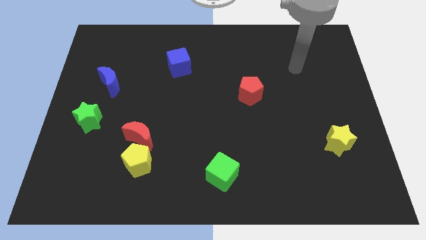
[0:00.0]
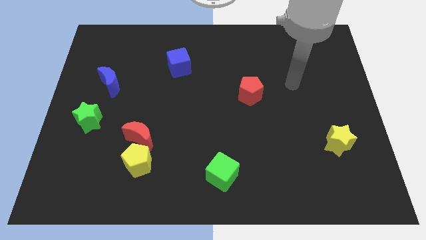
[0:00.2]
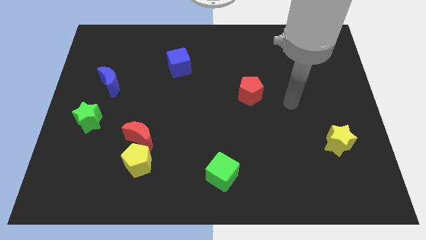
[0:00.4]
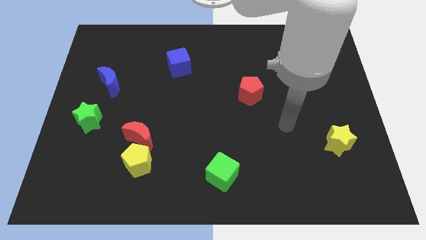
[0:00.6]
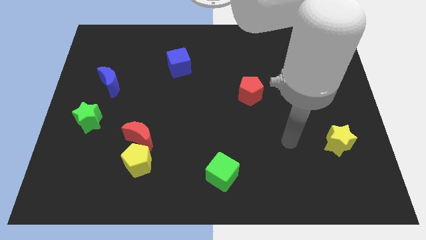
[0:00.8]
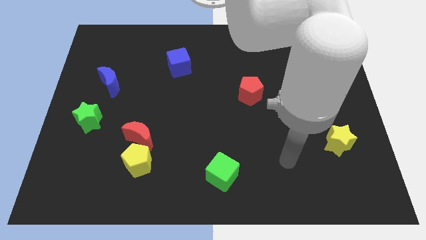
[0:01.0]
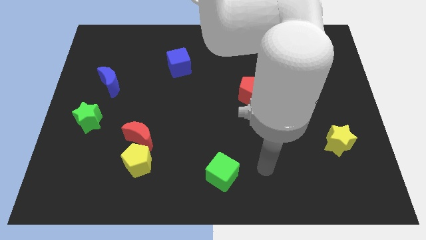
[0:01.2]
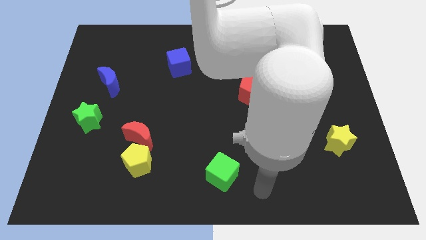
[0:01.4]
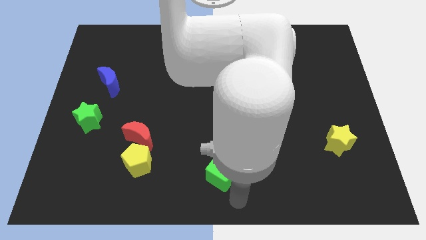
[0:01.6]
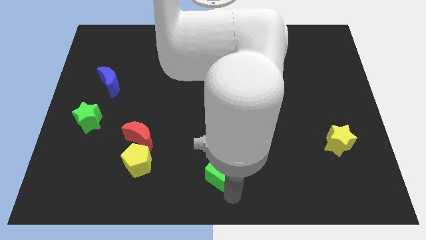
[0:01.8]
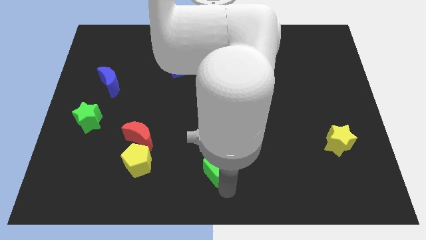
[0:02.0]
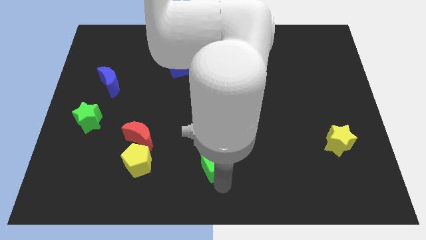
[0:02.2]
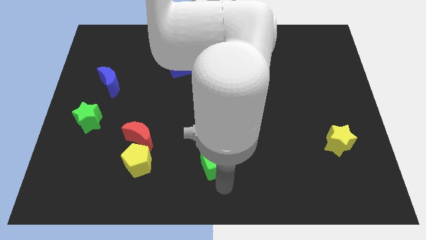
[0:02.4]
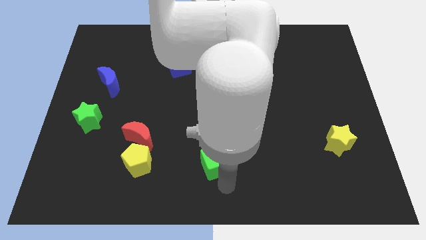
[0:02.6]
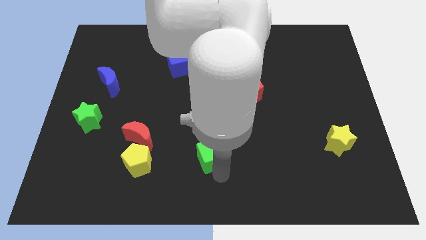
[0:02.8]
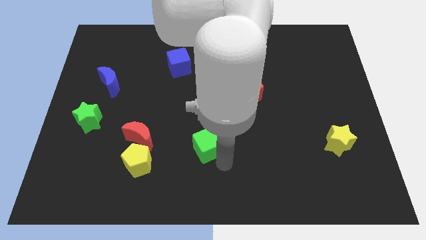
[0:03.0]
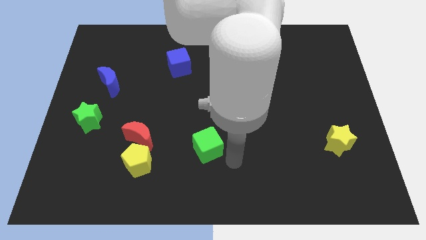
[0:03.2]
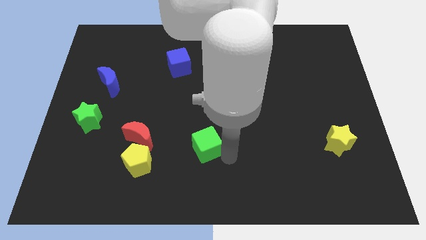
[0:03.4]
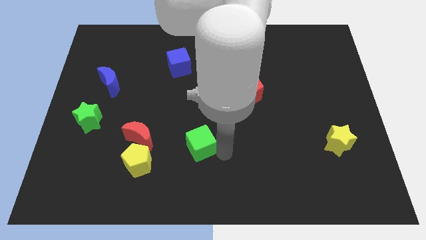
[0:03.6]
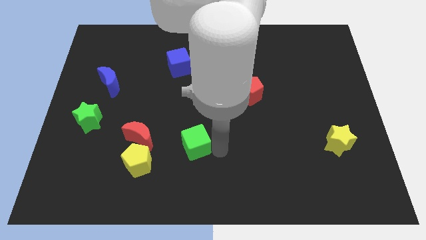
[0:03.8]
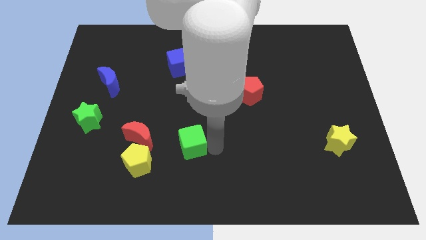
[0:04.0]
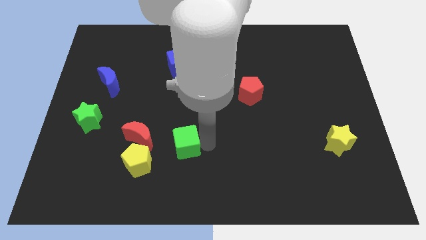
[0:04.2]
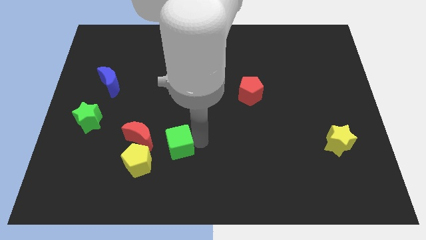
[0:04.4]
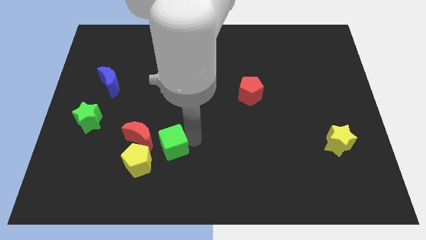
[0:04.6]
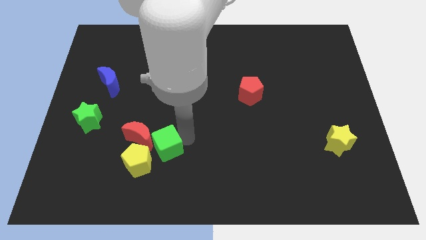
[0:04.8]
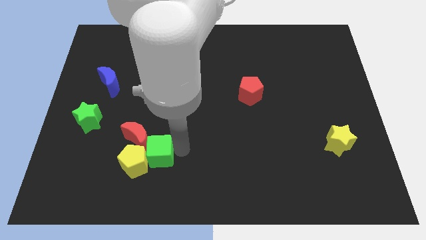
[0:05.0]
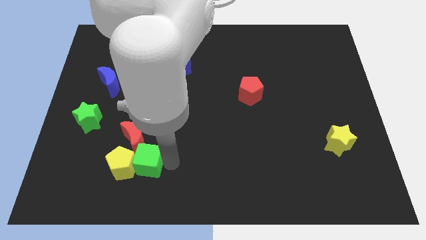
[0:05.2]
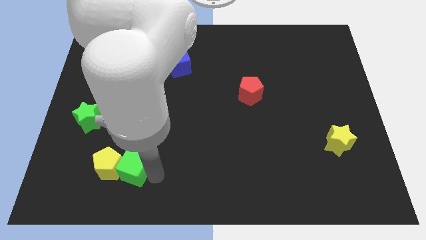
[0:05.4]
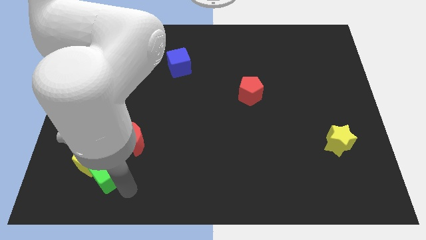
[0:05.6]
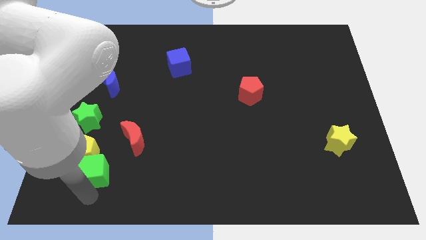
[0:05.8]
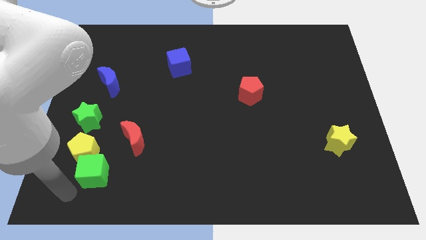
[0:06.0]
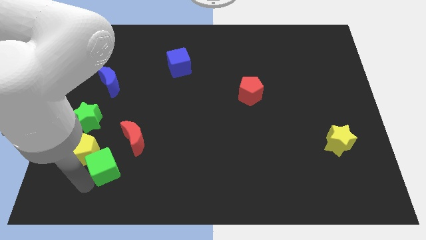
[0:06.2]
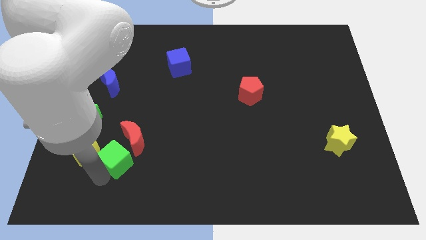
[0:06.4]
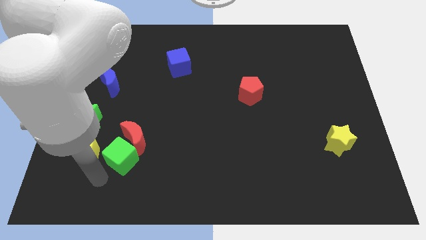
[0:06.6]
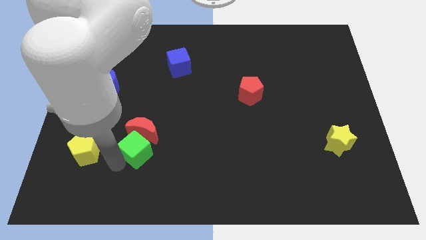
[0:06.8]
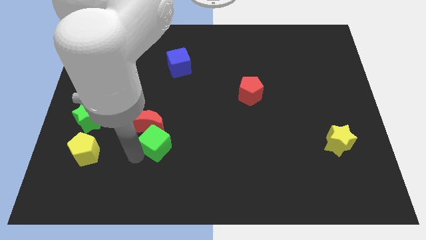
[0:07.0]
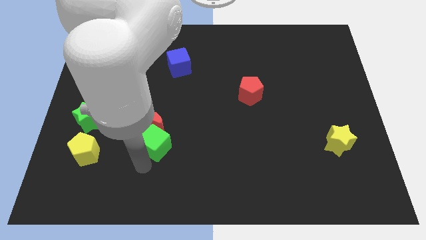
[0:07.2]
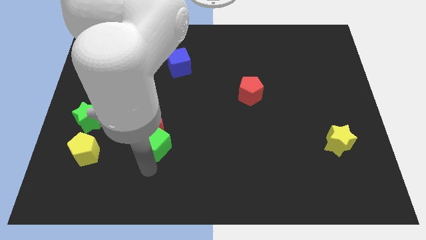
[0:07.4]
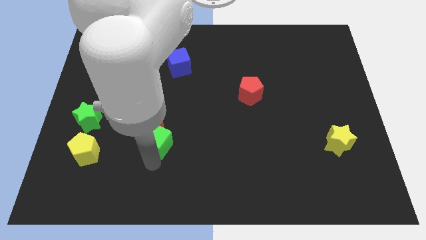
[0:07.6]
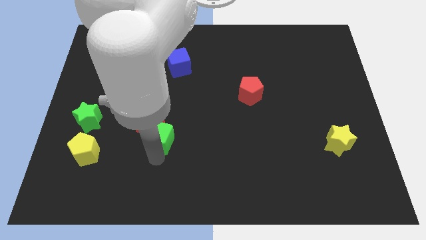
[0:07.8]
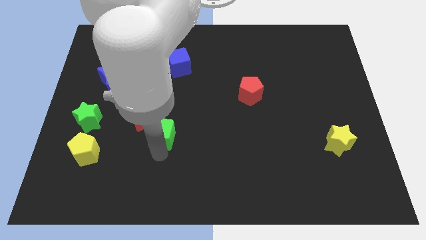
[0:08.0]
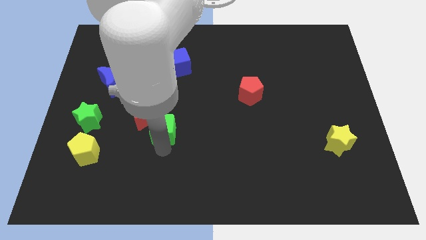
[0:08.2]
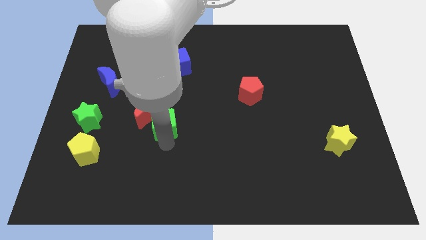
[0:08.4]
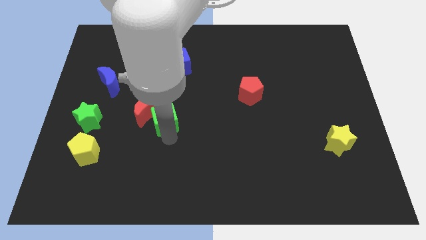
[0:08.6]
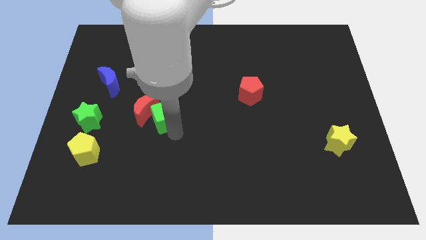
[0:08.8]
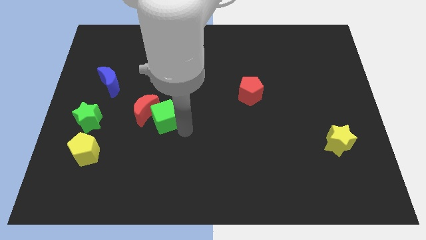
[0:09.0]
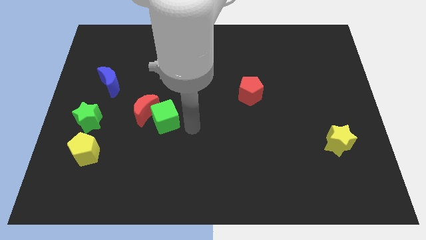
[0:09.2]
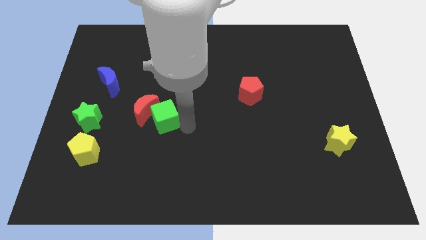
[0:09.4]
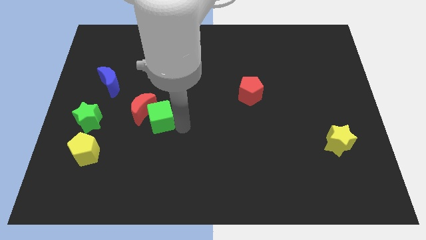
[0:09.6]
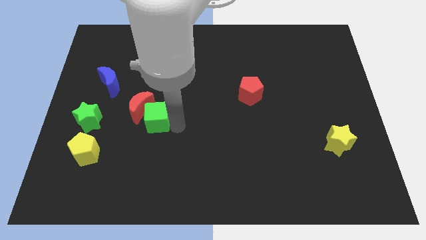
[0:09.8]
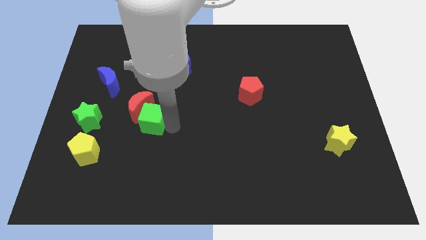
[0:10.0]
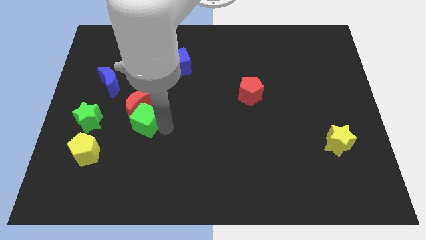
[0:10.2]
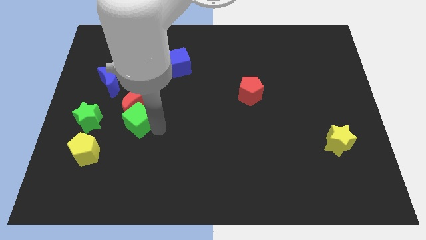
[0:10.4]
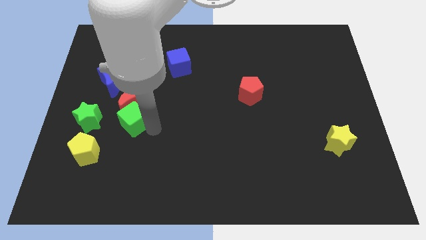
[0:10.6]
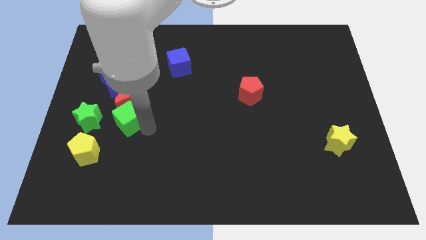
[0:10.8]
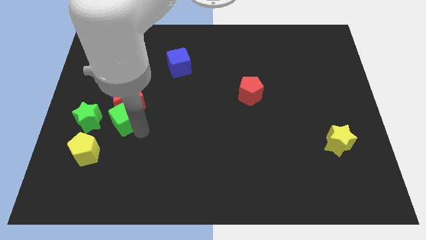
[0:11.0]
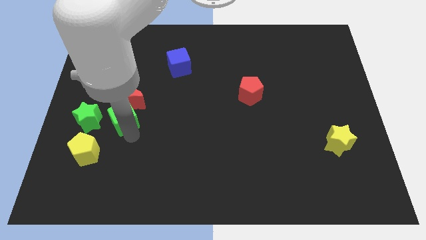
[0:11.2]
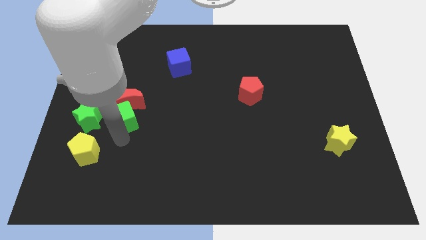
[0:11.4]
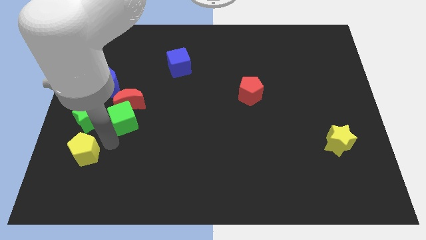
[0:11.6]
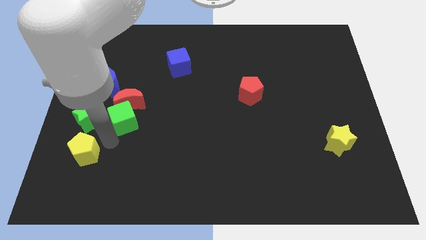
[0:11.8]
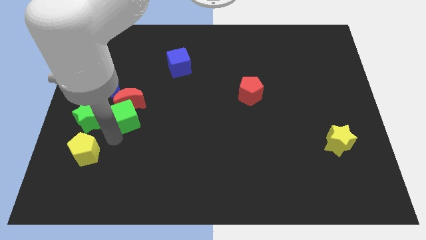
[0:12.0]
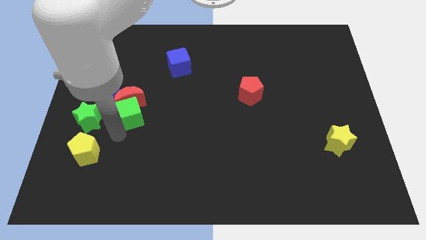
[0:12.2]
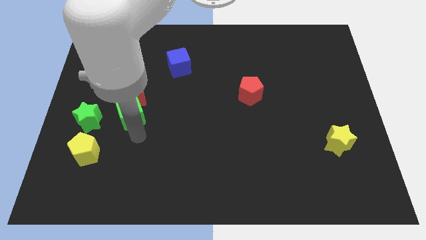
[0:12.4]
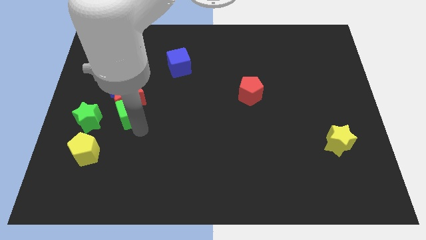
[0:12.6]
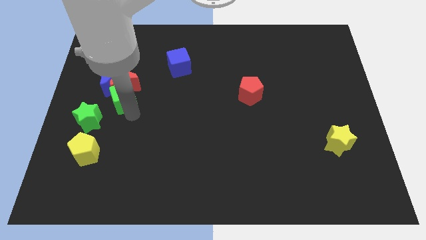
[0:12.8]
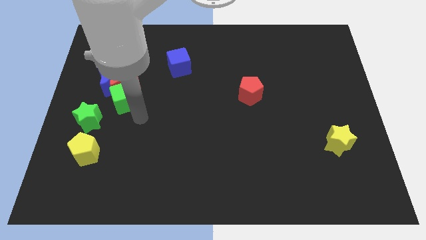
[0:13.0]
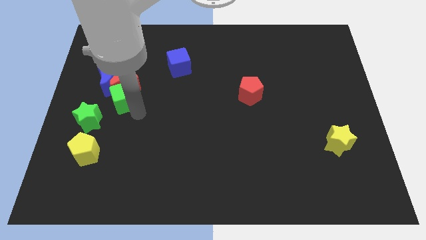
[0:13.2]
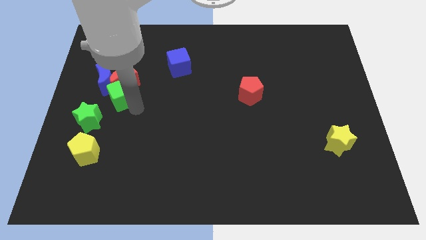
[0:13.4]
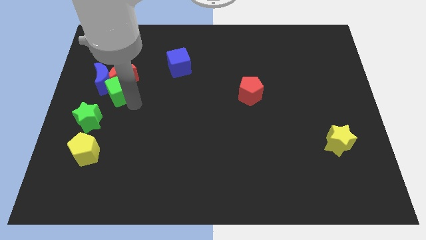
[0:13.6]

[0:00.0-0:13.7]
slide the green cube close to the blue moon
